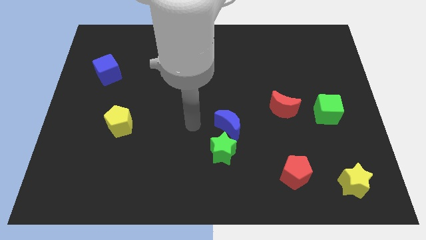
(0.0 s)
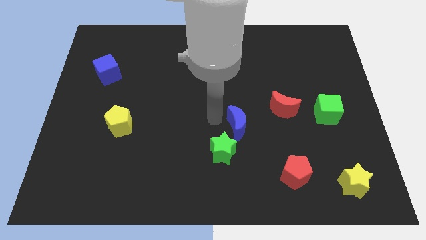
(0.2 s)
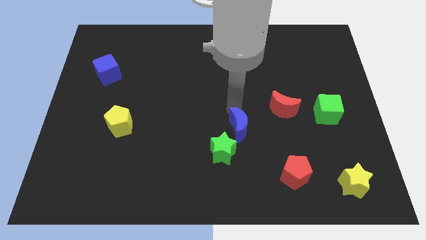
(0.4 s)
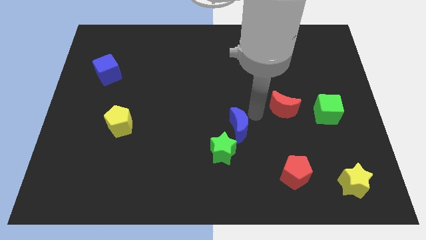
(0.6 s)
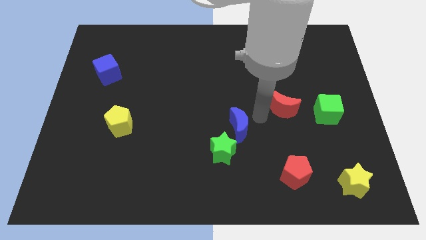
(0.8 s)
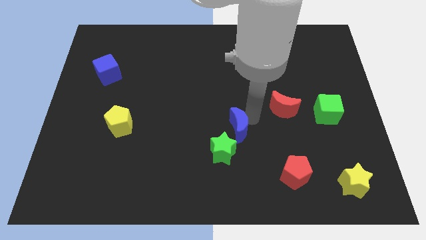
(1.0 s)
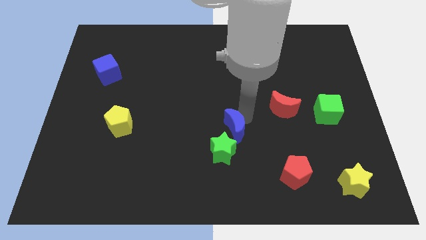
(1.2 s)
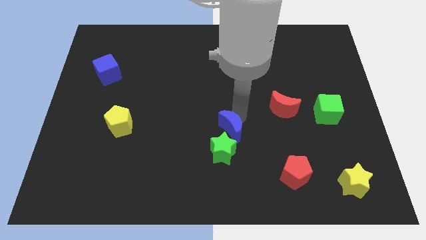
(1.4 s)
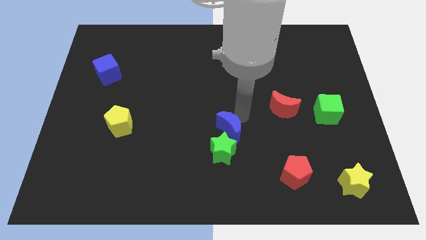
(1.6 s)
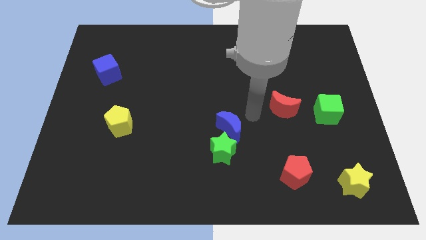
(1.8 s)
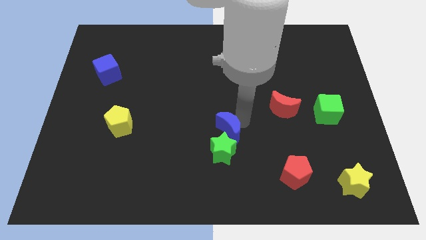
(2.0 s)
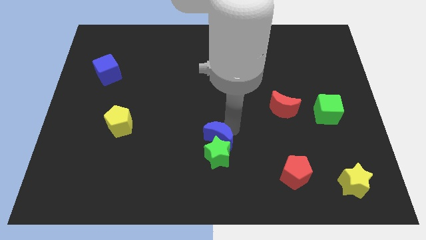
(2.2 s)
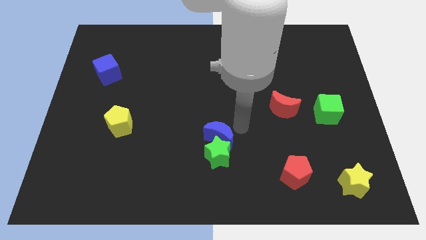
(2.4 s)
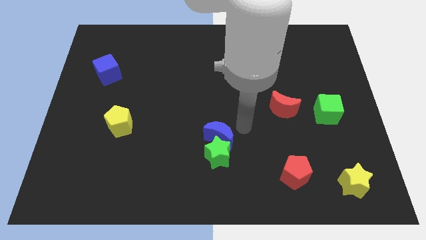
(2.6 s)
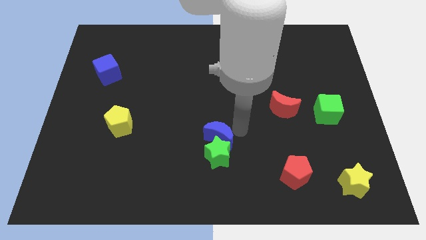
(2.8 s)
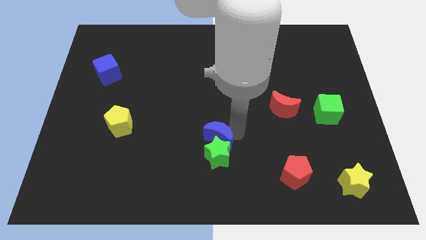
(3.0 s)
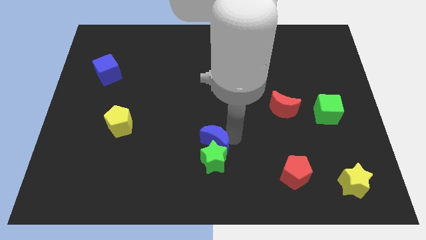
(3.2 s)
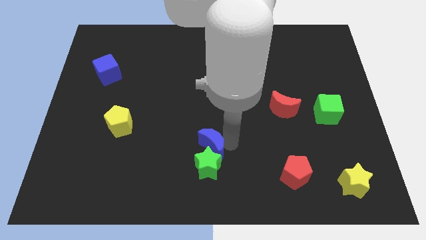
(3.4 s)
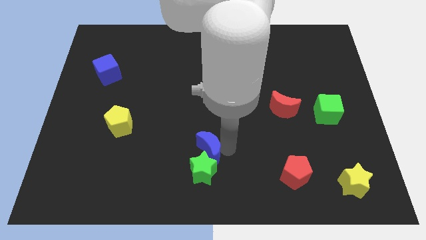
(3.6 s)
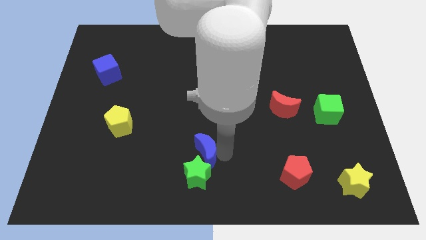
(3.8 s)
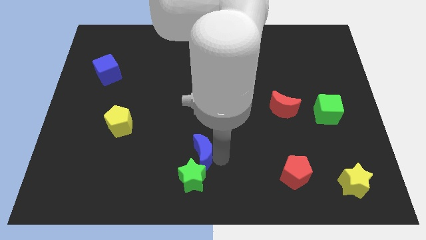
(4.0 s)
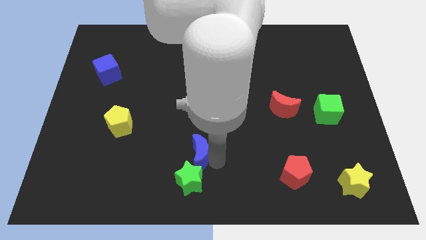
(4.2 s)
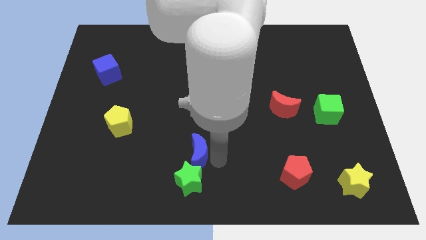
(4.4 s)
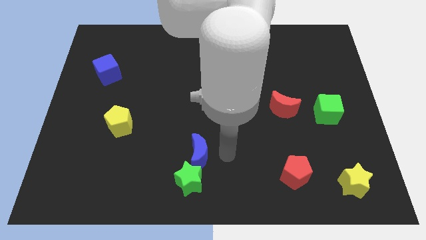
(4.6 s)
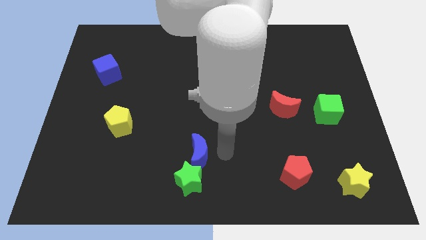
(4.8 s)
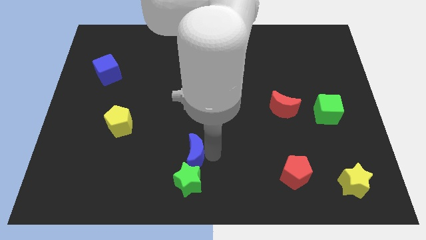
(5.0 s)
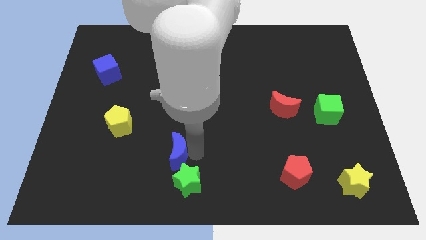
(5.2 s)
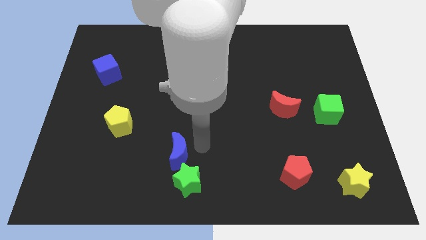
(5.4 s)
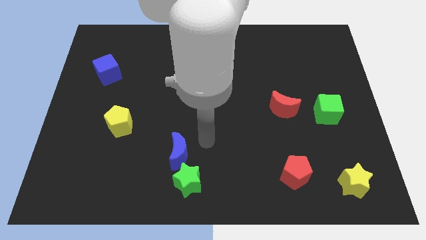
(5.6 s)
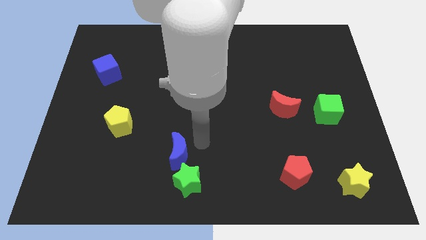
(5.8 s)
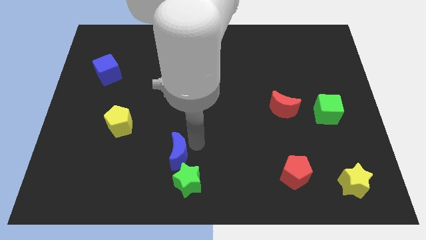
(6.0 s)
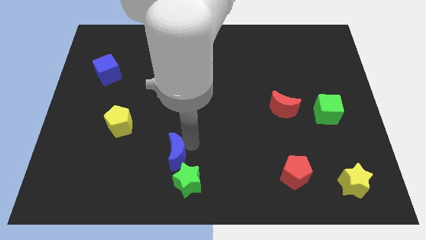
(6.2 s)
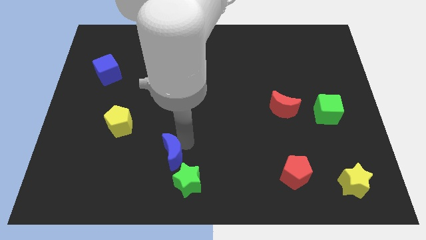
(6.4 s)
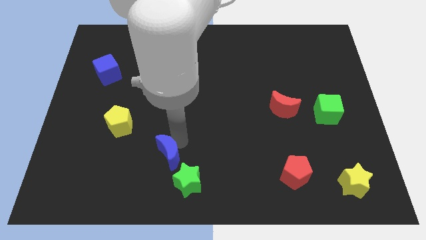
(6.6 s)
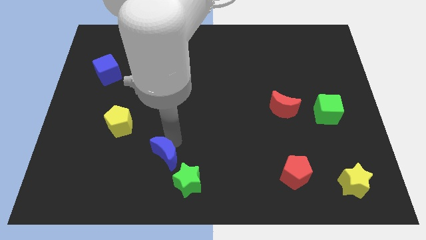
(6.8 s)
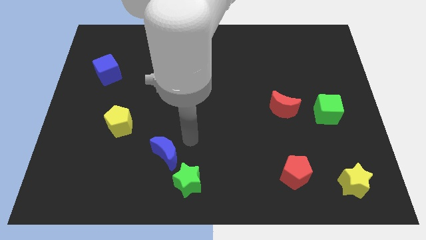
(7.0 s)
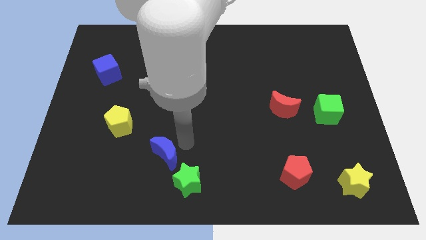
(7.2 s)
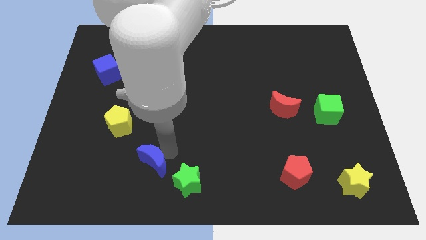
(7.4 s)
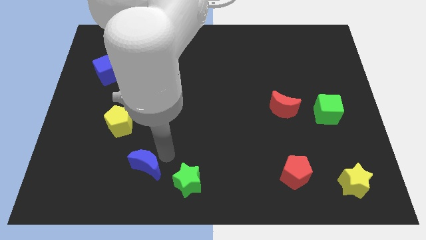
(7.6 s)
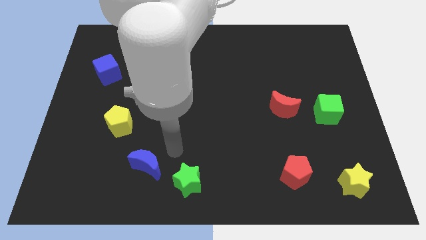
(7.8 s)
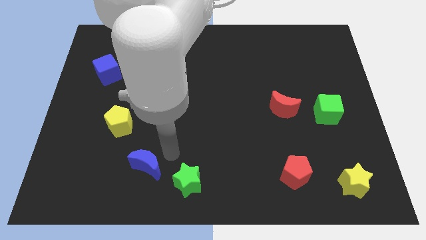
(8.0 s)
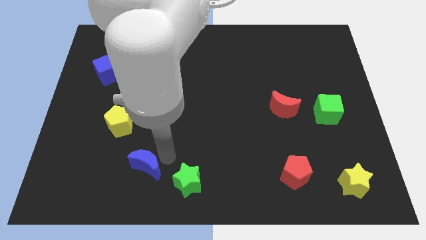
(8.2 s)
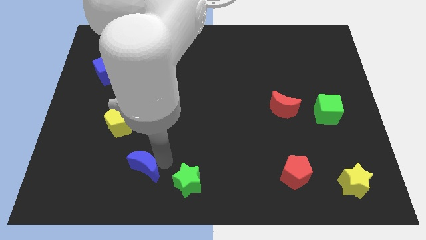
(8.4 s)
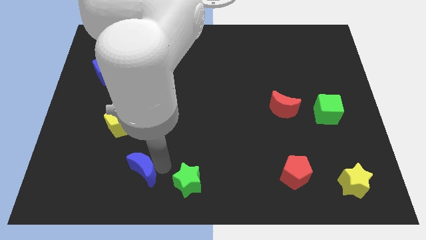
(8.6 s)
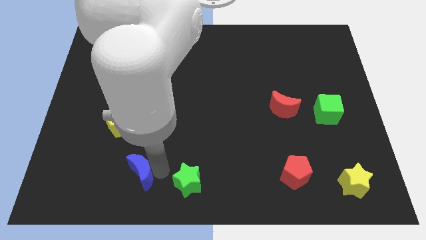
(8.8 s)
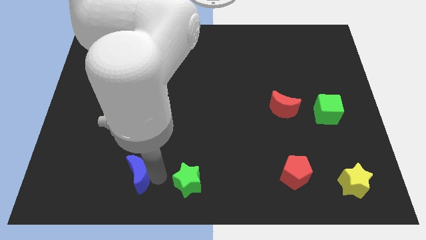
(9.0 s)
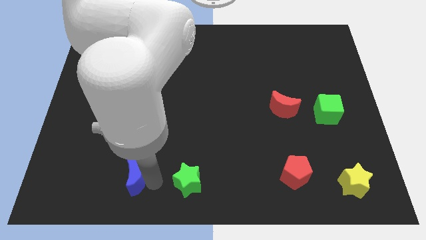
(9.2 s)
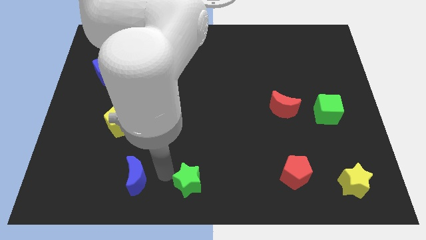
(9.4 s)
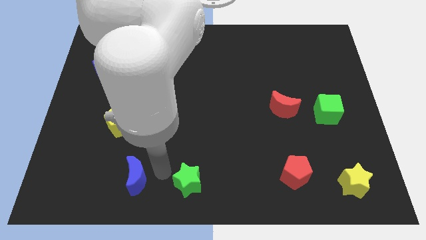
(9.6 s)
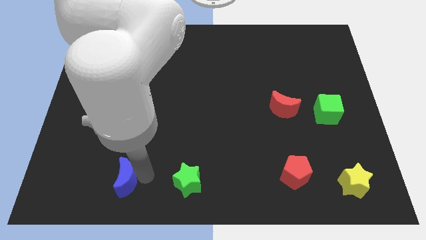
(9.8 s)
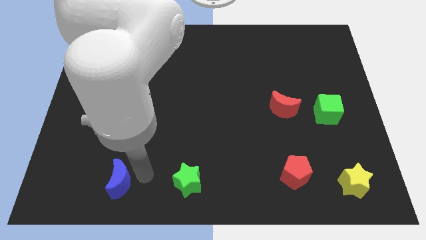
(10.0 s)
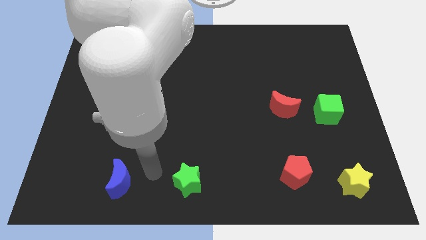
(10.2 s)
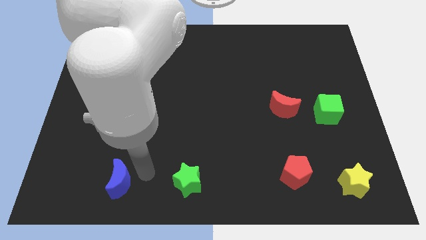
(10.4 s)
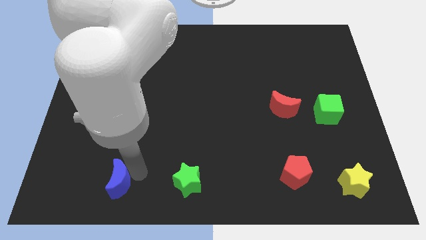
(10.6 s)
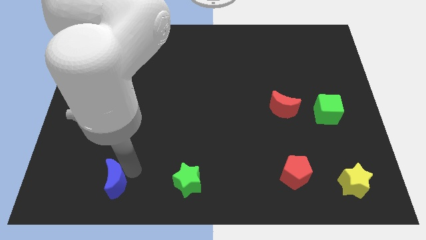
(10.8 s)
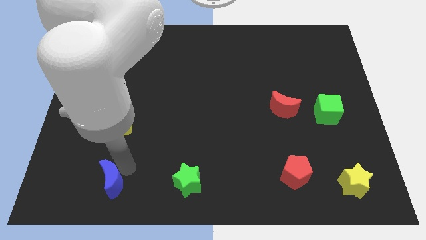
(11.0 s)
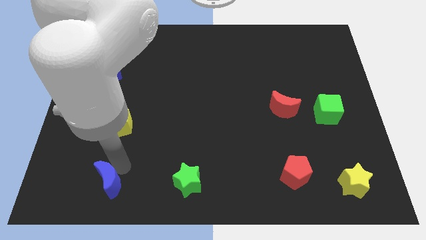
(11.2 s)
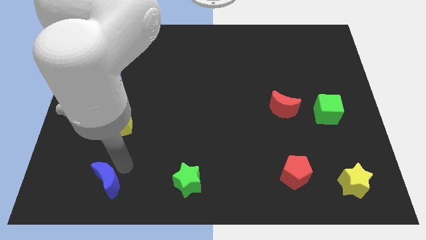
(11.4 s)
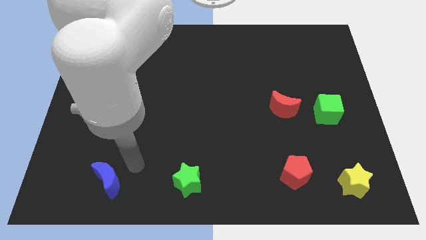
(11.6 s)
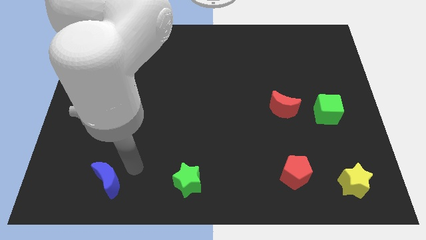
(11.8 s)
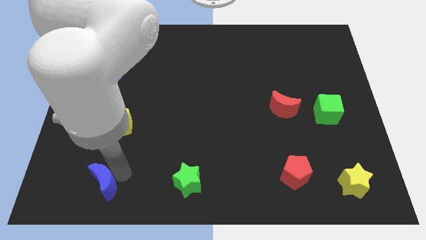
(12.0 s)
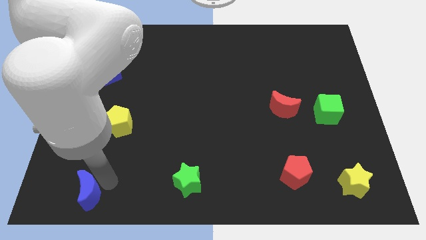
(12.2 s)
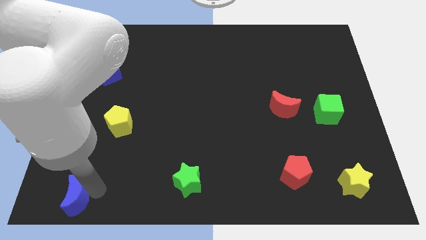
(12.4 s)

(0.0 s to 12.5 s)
move the blue moon to the lower left corner
